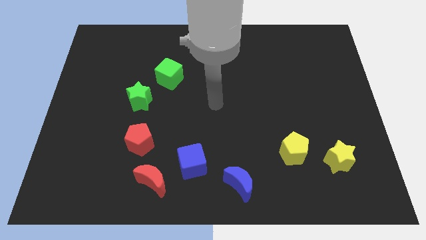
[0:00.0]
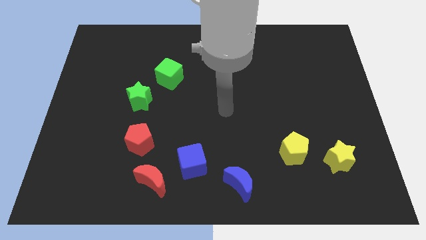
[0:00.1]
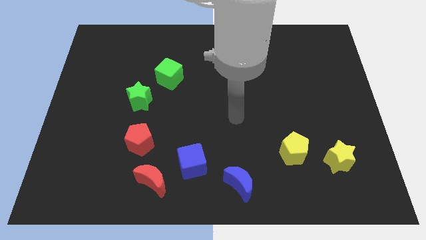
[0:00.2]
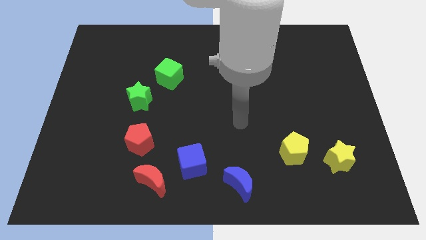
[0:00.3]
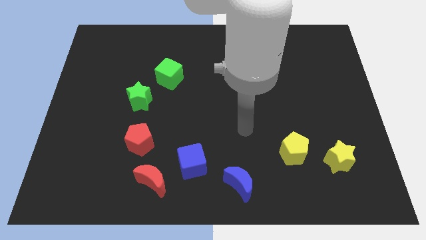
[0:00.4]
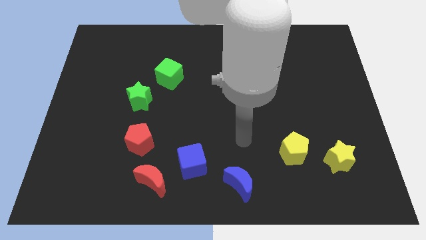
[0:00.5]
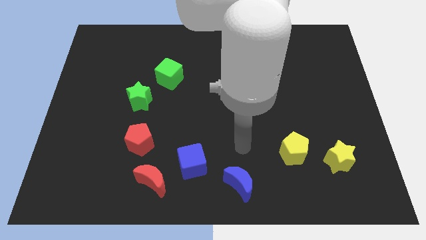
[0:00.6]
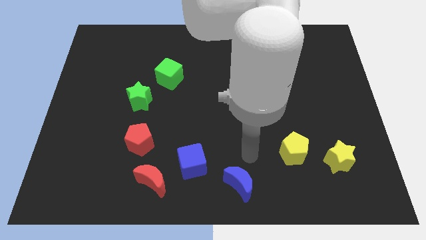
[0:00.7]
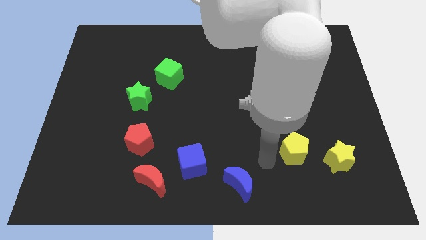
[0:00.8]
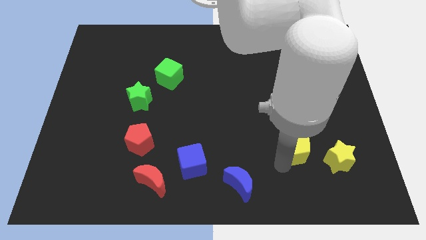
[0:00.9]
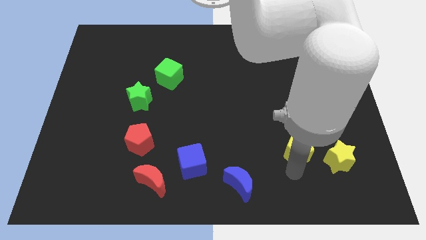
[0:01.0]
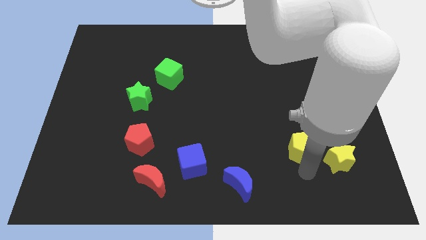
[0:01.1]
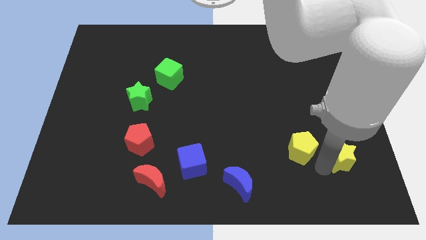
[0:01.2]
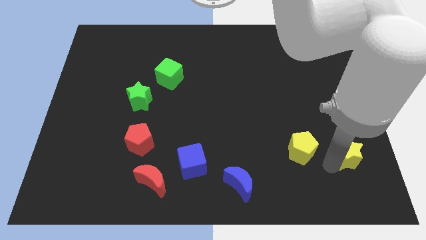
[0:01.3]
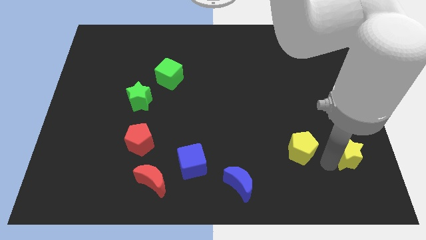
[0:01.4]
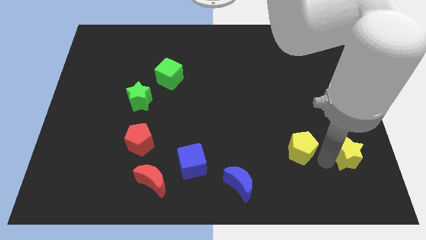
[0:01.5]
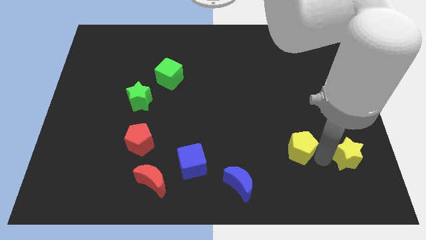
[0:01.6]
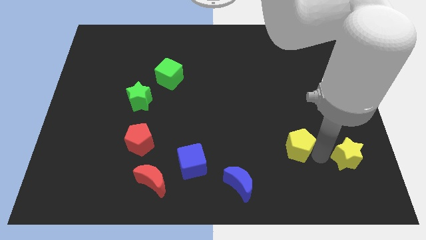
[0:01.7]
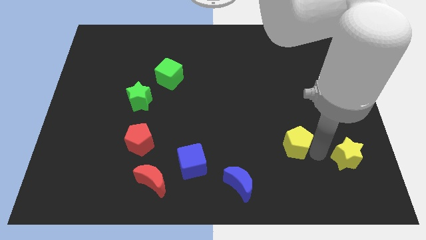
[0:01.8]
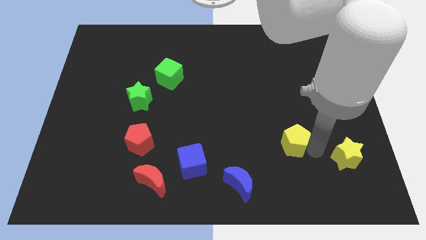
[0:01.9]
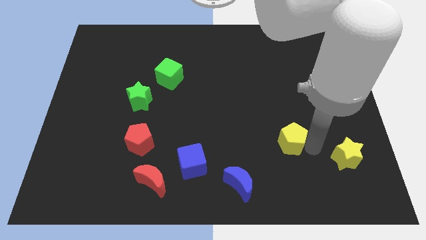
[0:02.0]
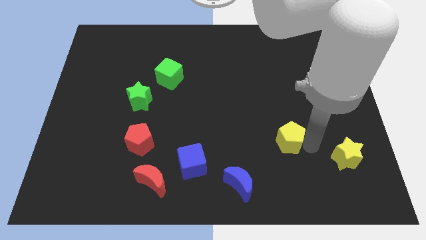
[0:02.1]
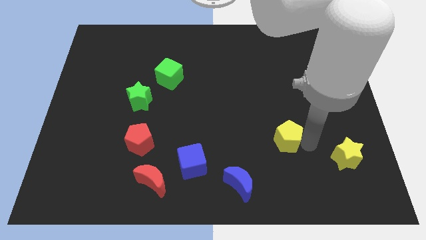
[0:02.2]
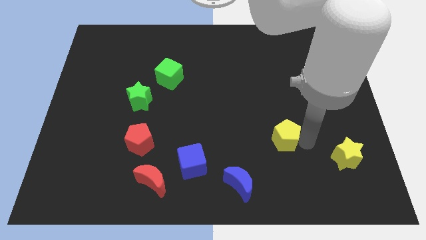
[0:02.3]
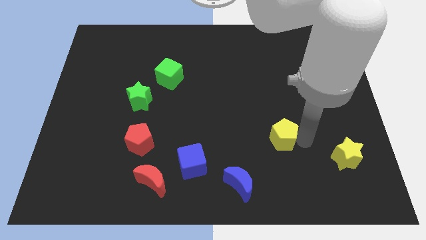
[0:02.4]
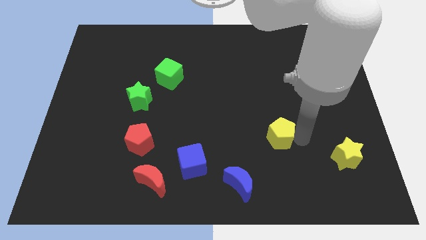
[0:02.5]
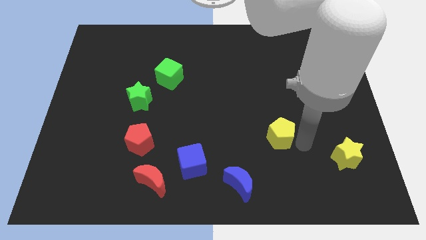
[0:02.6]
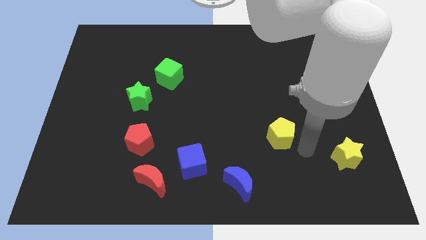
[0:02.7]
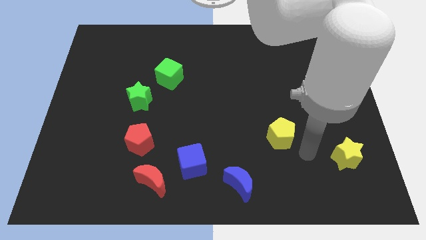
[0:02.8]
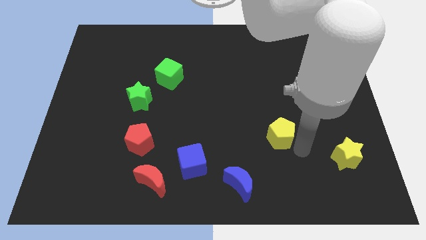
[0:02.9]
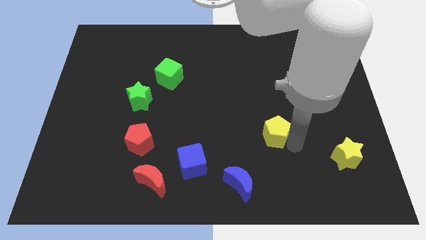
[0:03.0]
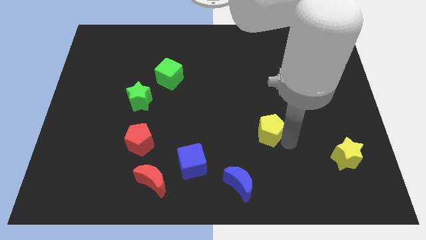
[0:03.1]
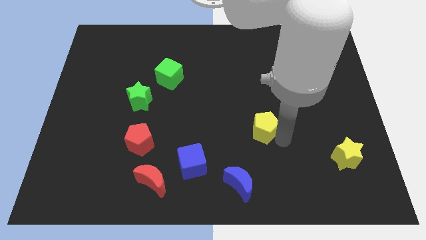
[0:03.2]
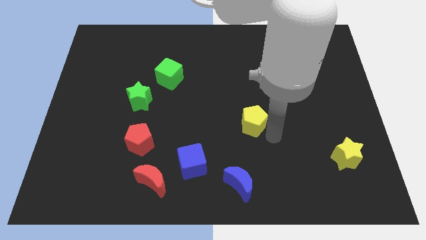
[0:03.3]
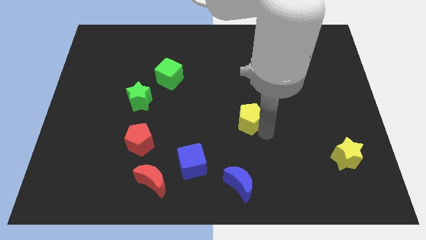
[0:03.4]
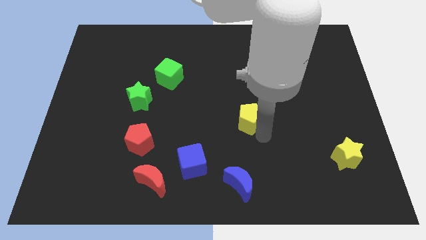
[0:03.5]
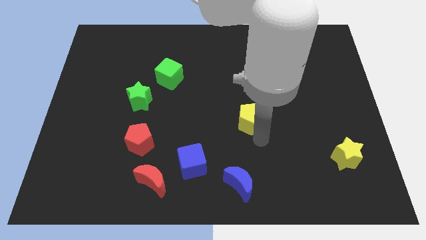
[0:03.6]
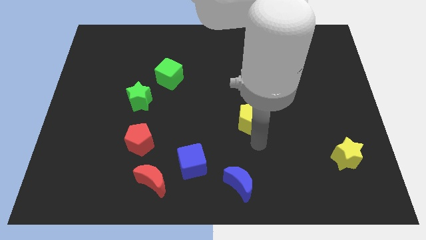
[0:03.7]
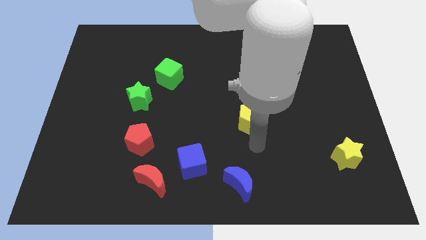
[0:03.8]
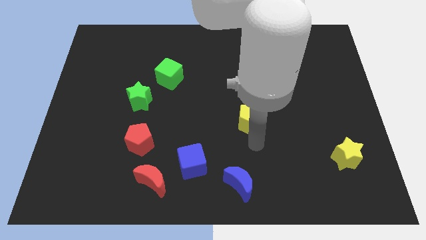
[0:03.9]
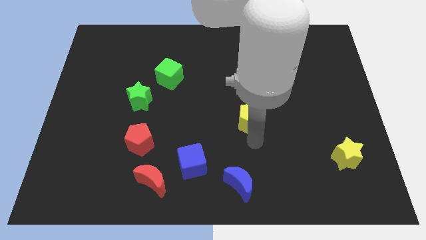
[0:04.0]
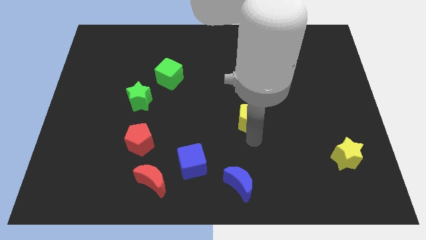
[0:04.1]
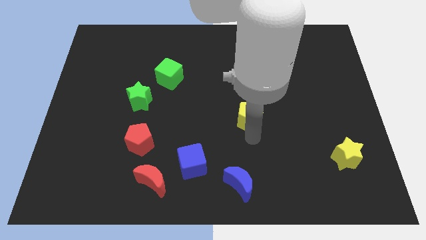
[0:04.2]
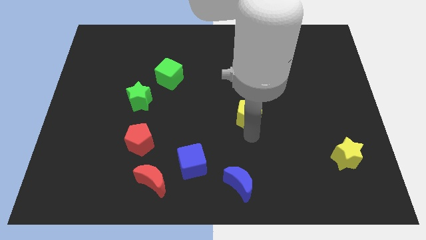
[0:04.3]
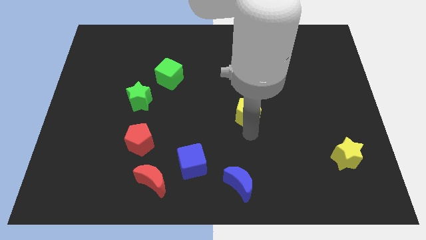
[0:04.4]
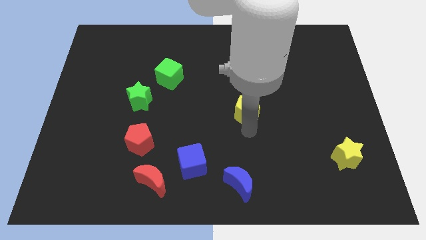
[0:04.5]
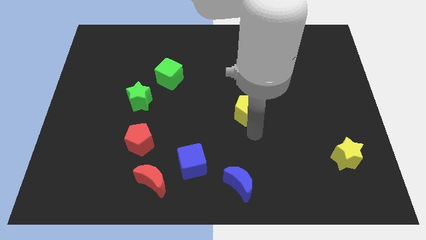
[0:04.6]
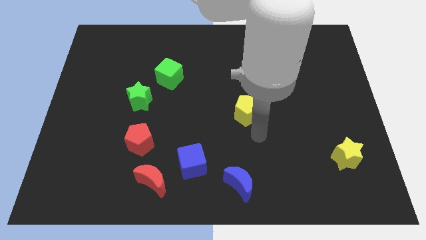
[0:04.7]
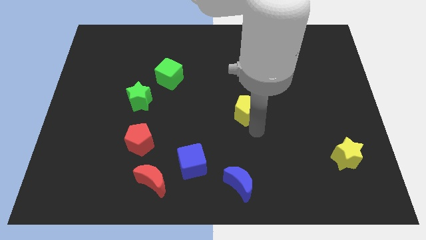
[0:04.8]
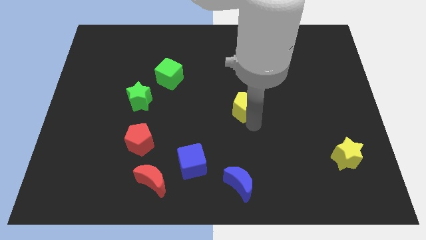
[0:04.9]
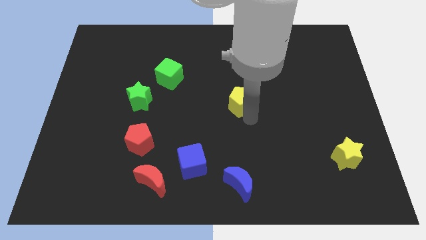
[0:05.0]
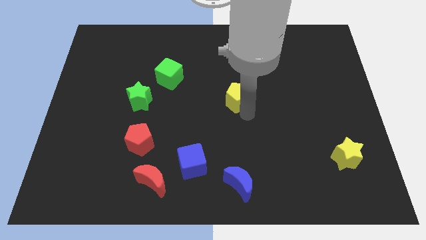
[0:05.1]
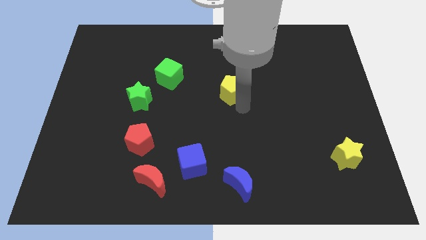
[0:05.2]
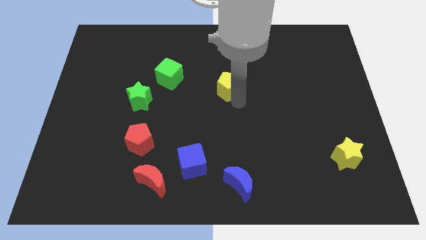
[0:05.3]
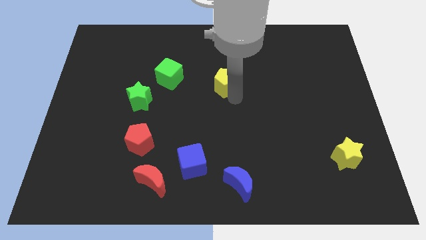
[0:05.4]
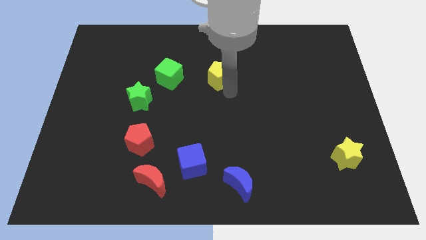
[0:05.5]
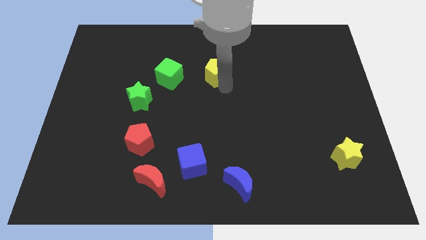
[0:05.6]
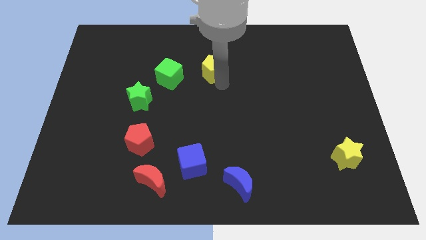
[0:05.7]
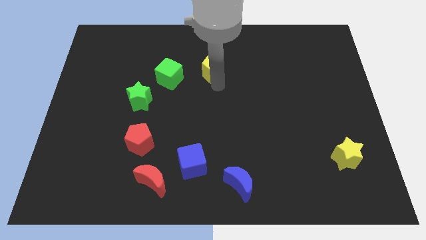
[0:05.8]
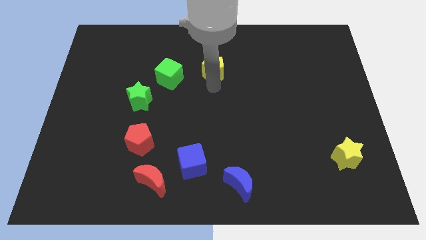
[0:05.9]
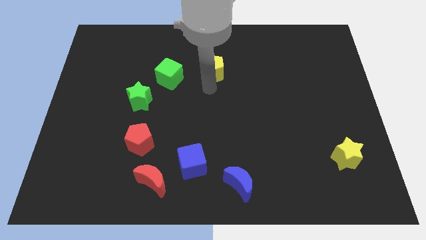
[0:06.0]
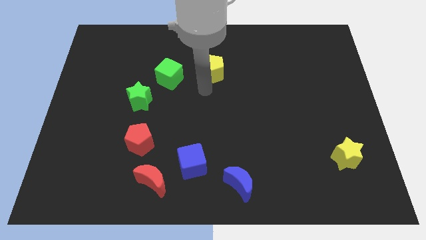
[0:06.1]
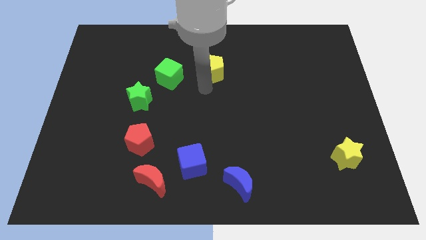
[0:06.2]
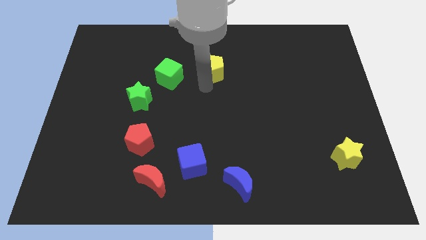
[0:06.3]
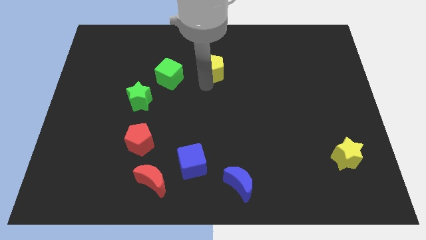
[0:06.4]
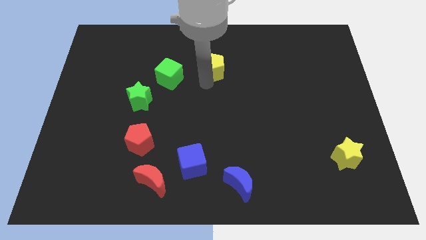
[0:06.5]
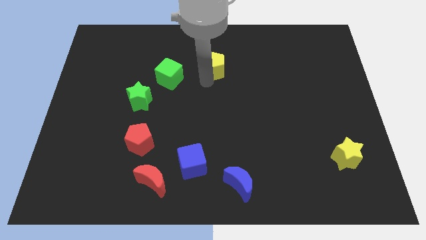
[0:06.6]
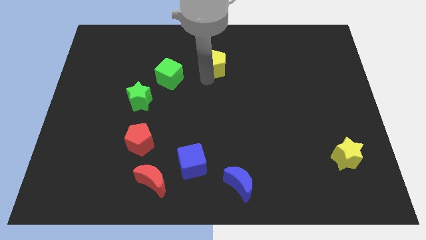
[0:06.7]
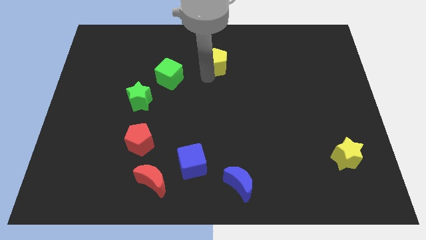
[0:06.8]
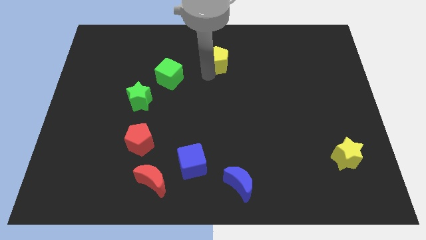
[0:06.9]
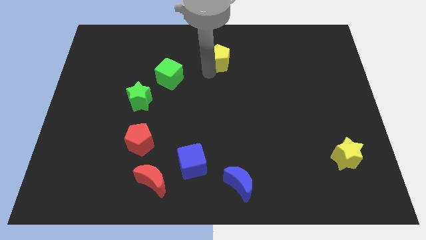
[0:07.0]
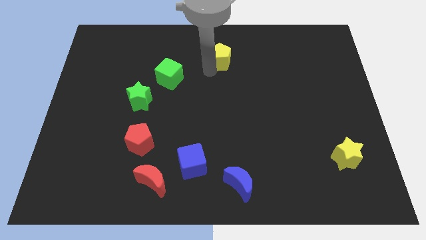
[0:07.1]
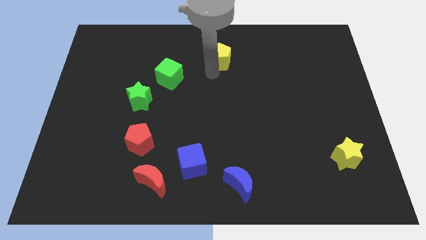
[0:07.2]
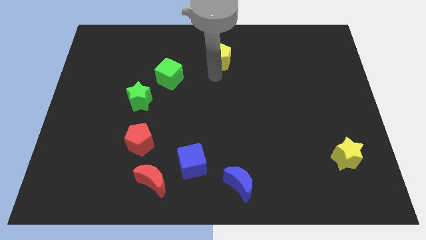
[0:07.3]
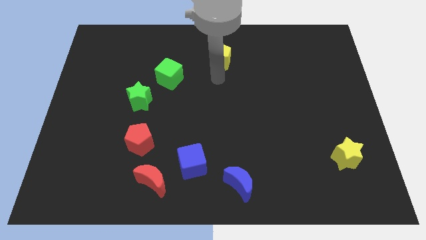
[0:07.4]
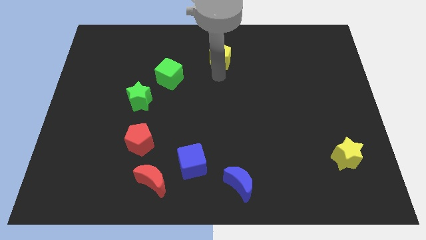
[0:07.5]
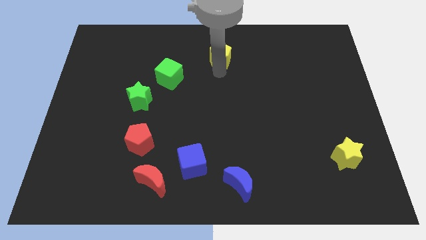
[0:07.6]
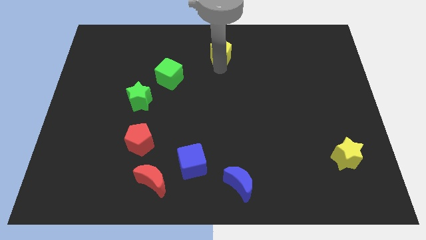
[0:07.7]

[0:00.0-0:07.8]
slide the yellow pentagon to the top
